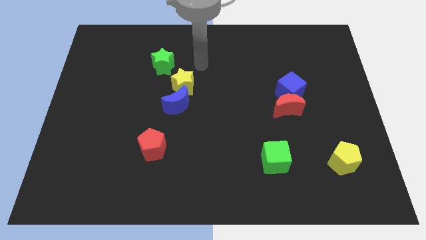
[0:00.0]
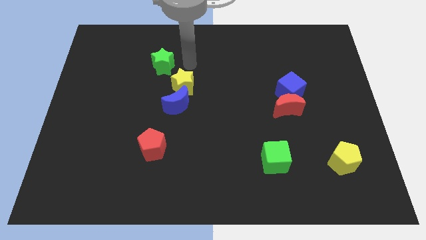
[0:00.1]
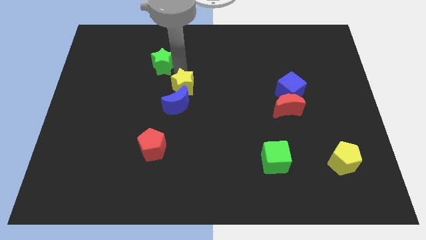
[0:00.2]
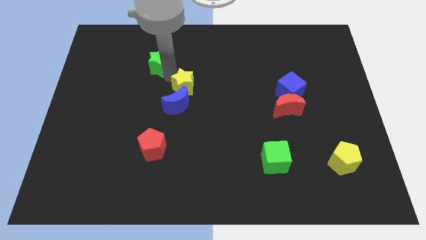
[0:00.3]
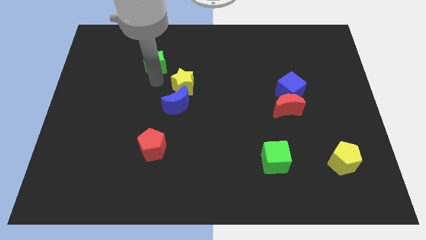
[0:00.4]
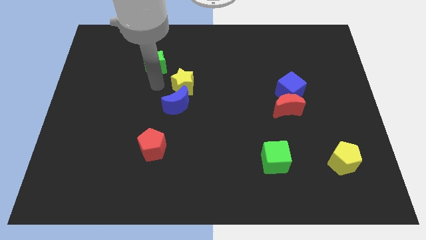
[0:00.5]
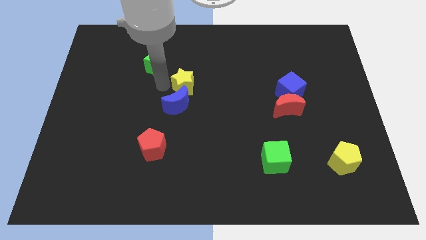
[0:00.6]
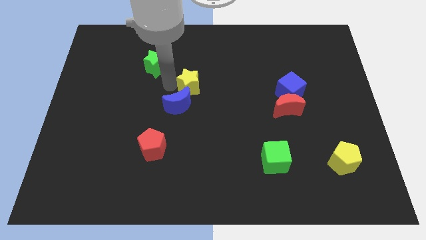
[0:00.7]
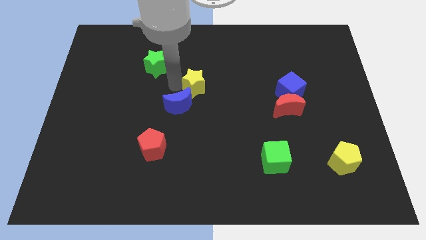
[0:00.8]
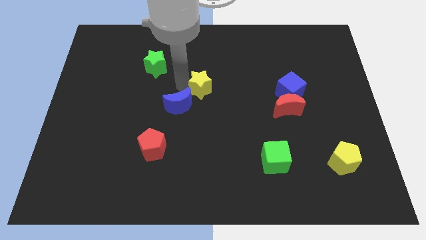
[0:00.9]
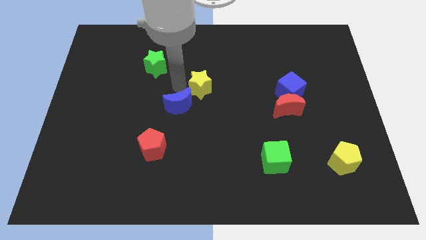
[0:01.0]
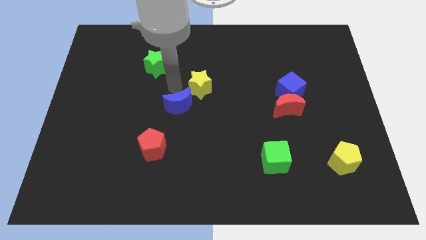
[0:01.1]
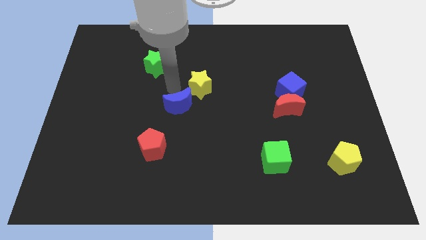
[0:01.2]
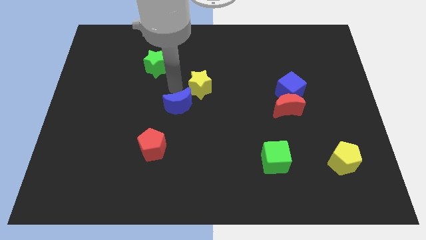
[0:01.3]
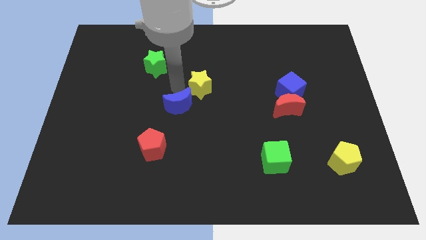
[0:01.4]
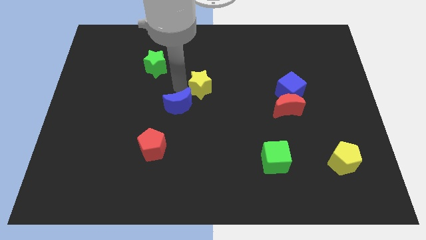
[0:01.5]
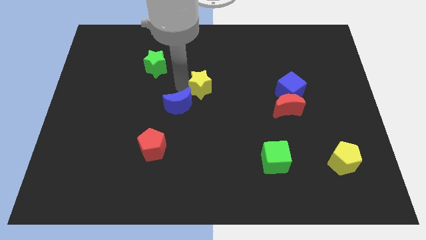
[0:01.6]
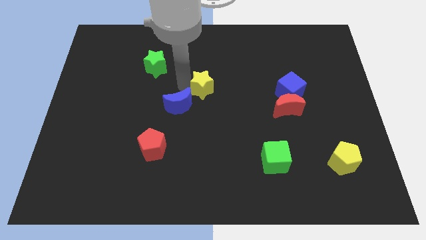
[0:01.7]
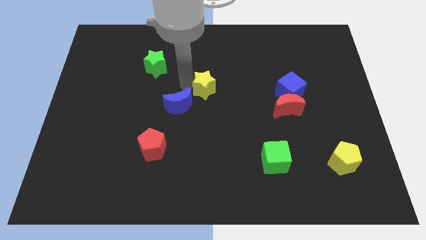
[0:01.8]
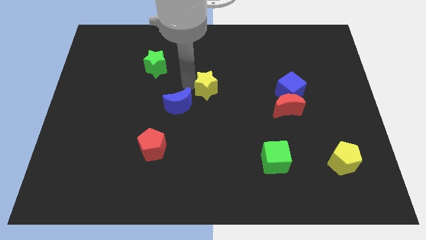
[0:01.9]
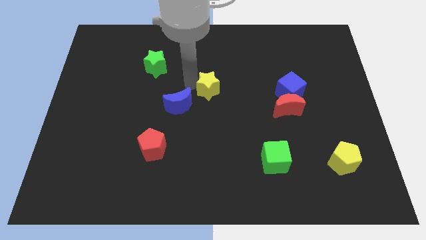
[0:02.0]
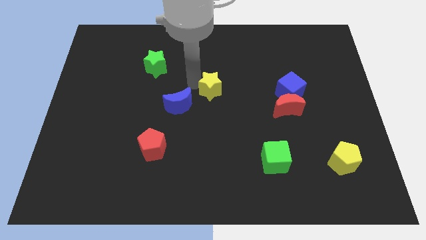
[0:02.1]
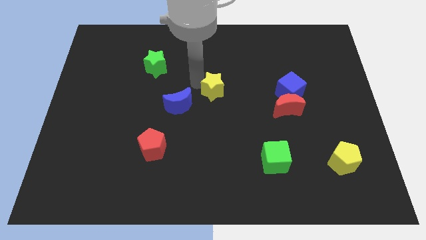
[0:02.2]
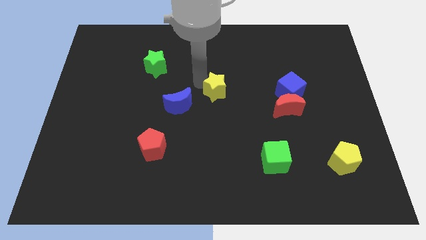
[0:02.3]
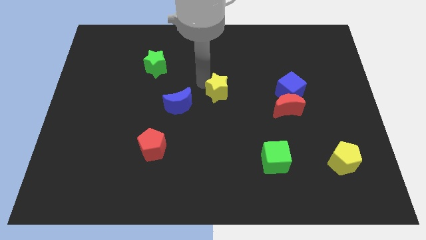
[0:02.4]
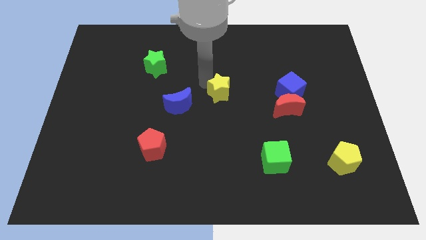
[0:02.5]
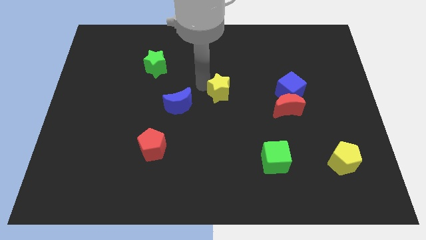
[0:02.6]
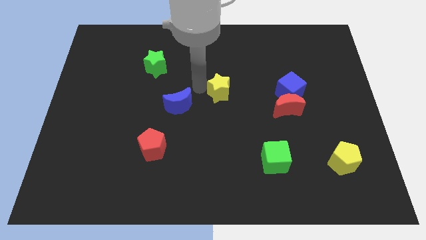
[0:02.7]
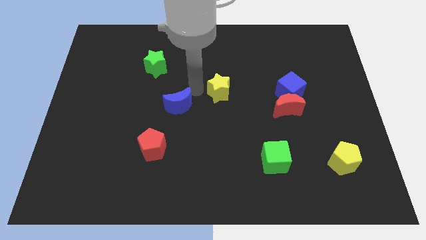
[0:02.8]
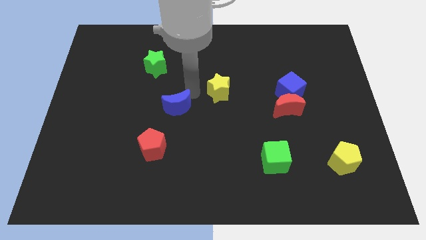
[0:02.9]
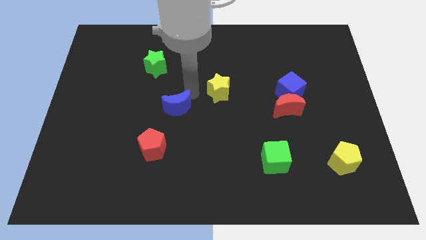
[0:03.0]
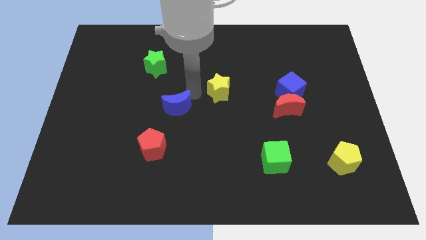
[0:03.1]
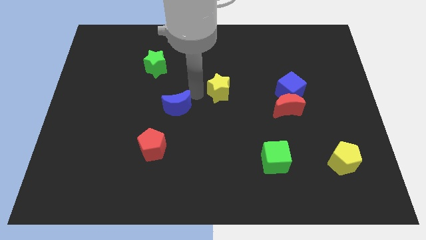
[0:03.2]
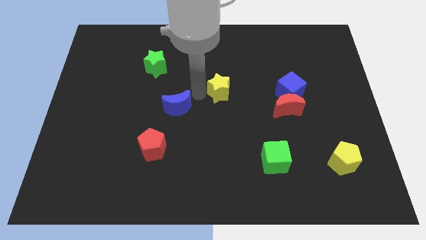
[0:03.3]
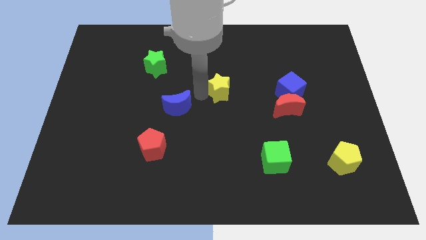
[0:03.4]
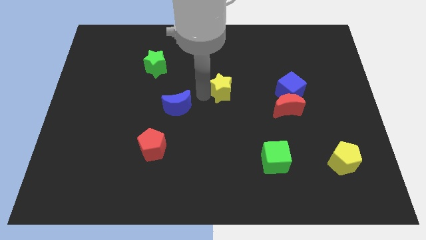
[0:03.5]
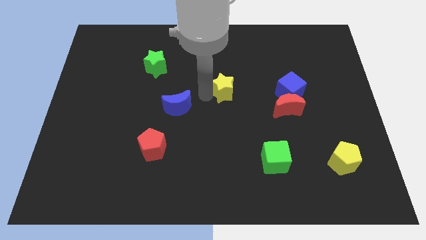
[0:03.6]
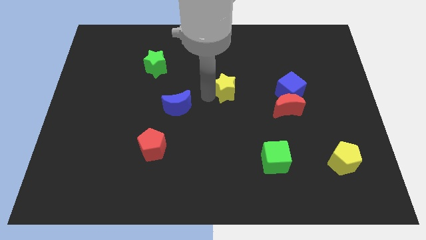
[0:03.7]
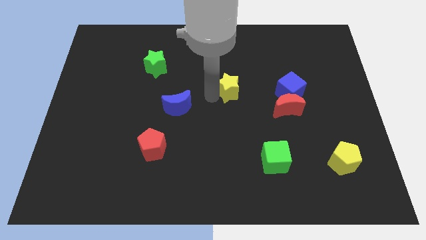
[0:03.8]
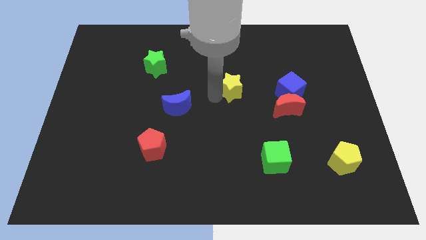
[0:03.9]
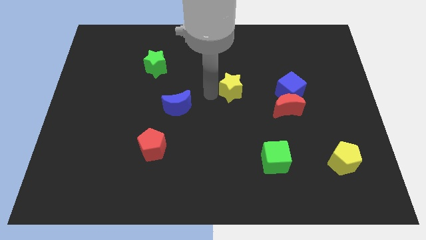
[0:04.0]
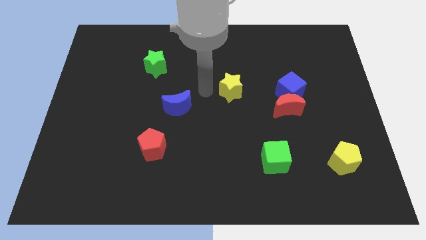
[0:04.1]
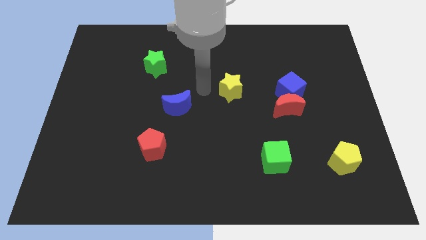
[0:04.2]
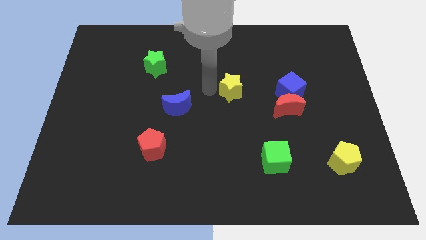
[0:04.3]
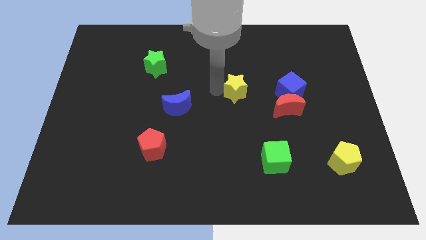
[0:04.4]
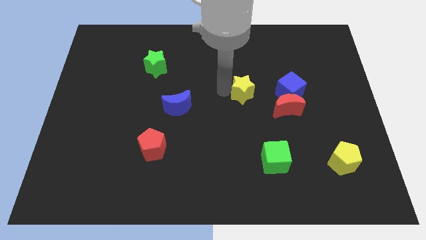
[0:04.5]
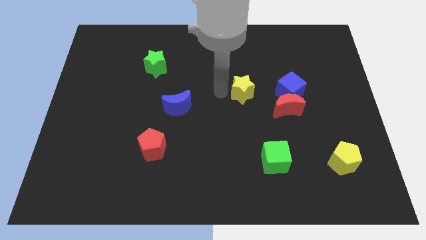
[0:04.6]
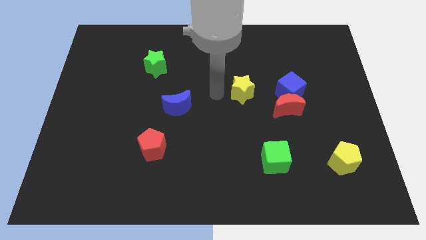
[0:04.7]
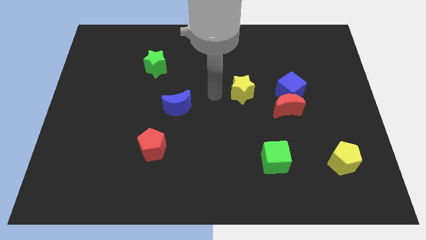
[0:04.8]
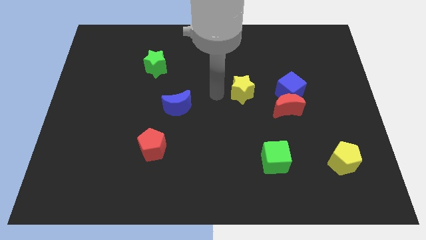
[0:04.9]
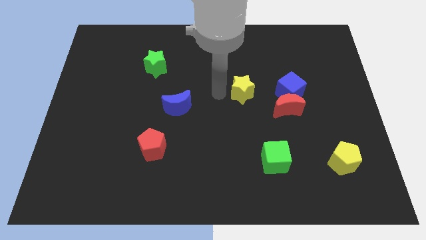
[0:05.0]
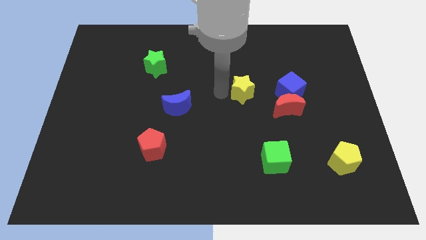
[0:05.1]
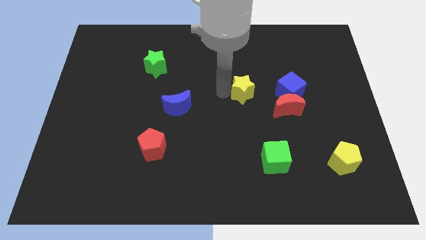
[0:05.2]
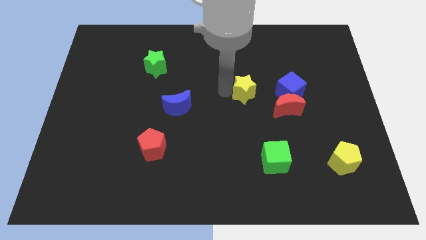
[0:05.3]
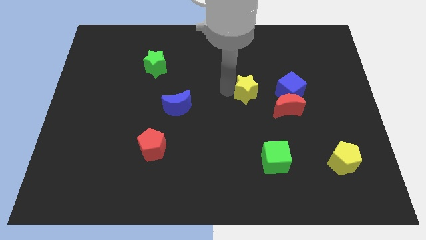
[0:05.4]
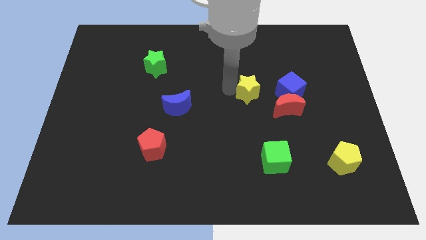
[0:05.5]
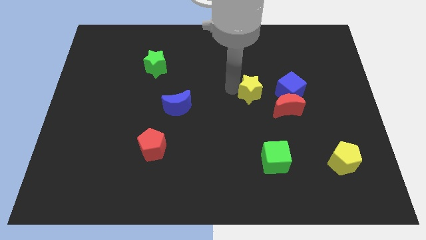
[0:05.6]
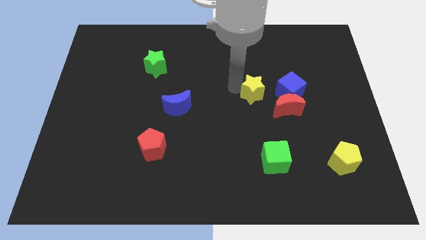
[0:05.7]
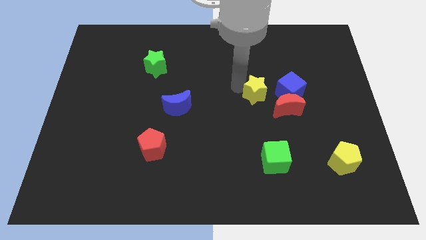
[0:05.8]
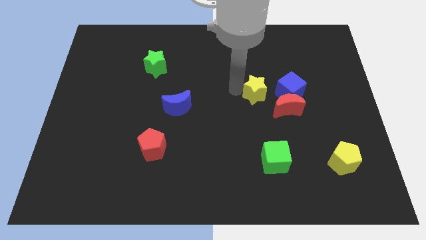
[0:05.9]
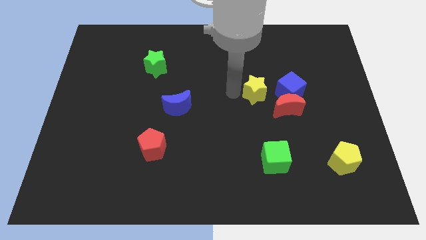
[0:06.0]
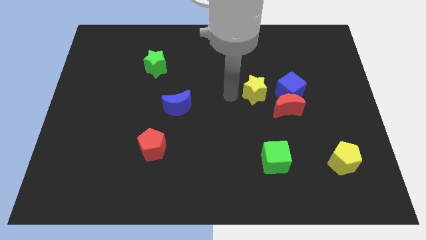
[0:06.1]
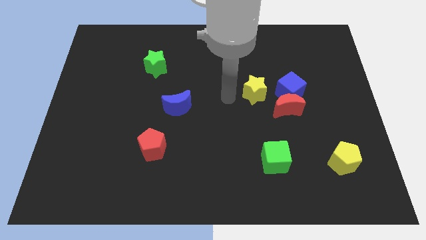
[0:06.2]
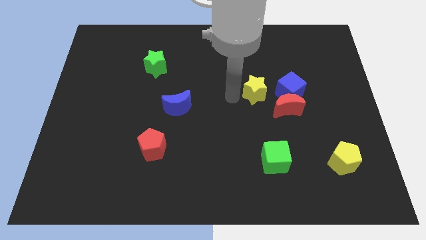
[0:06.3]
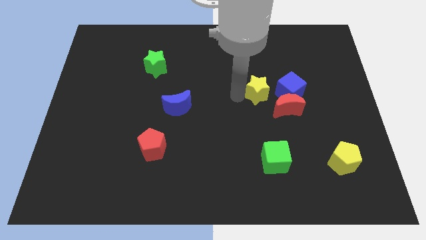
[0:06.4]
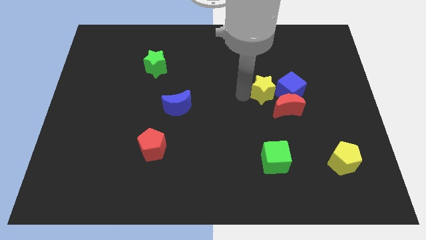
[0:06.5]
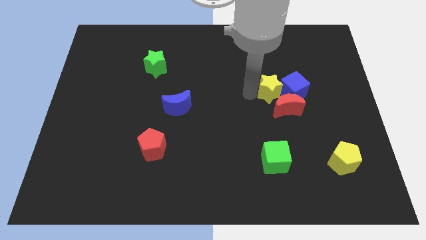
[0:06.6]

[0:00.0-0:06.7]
slide the yellow star close to the blue cube
